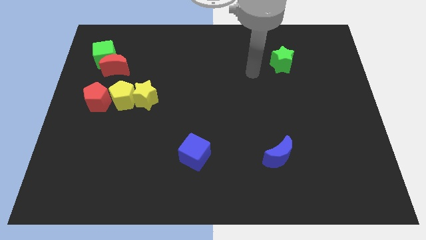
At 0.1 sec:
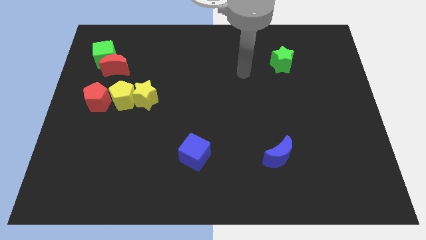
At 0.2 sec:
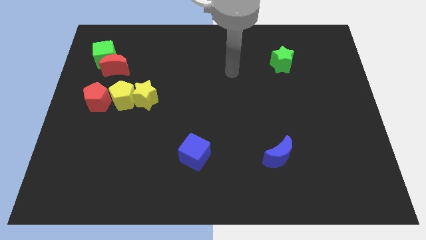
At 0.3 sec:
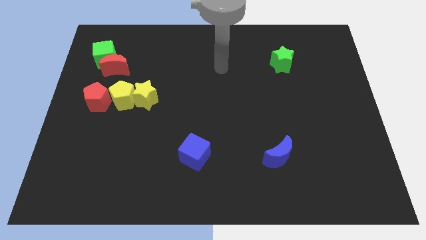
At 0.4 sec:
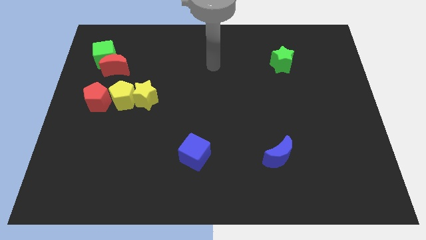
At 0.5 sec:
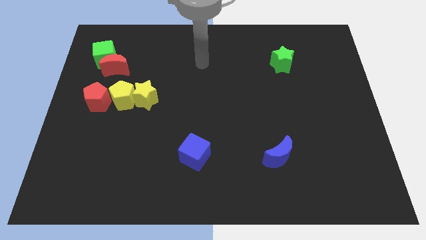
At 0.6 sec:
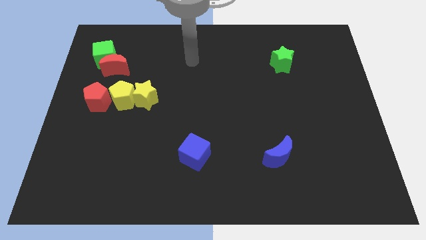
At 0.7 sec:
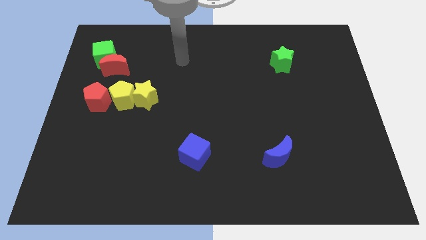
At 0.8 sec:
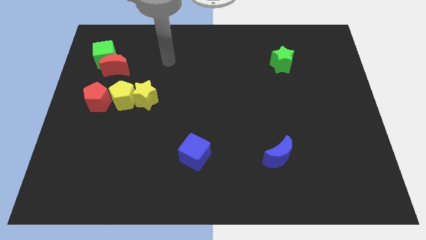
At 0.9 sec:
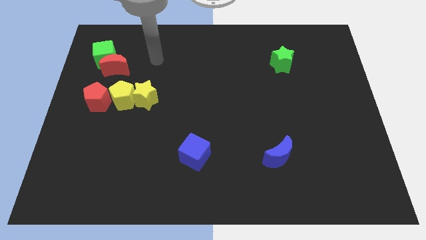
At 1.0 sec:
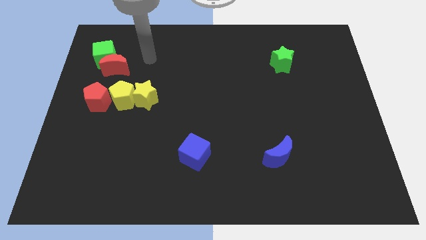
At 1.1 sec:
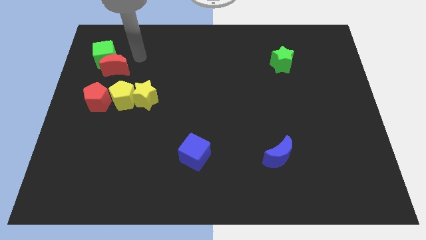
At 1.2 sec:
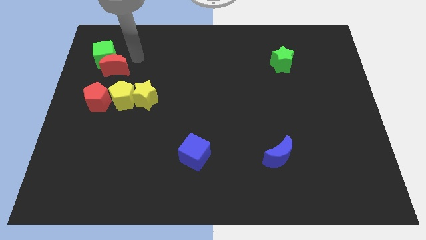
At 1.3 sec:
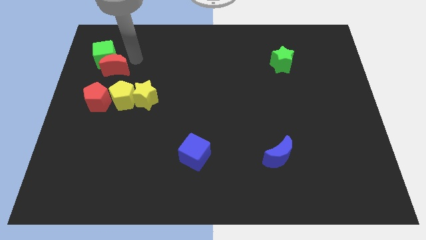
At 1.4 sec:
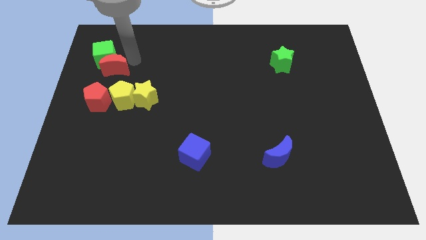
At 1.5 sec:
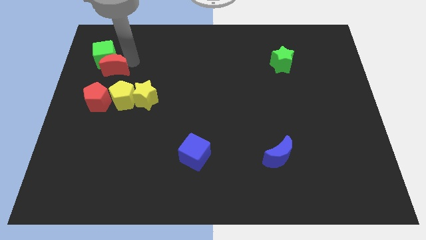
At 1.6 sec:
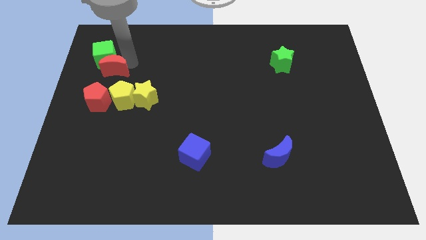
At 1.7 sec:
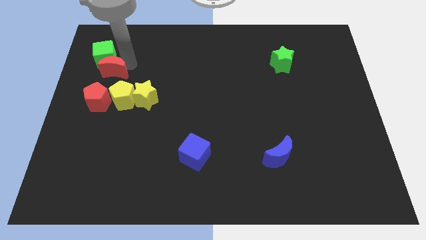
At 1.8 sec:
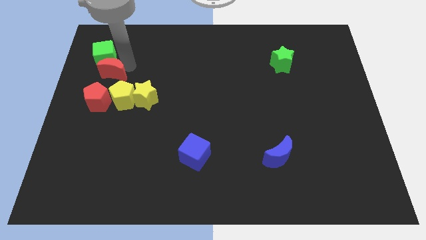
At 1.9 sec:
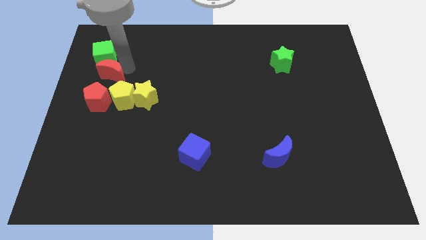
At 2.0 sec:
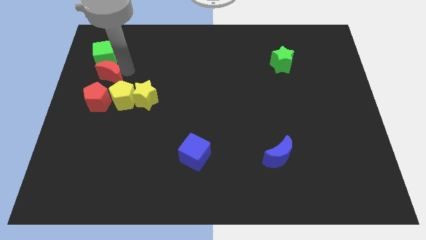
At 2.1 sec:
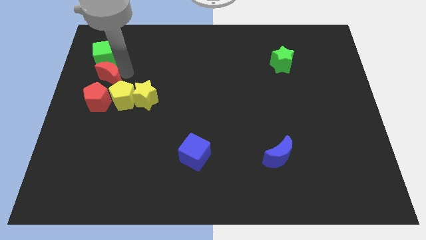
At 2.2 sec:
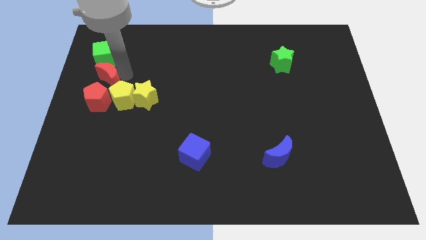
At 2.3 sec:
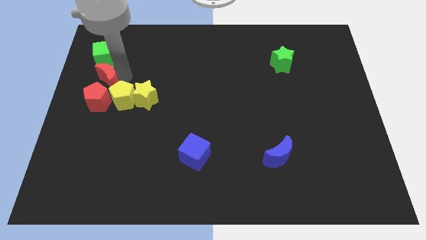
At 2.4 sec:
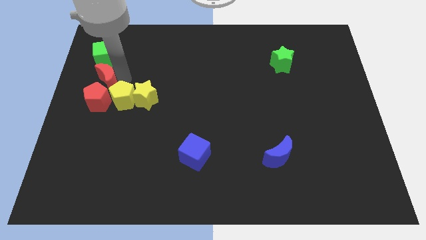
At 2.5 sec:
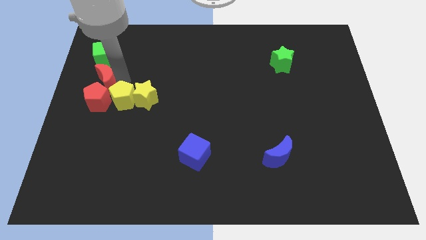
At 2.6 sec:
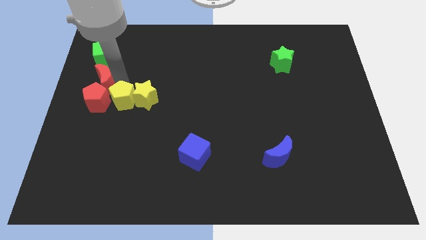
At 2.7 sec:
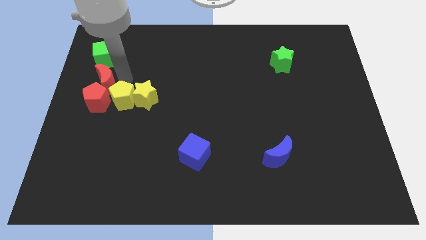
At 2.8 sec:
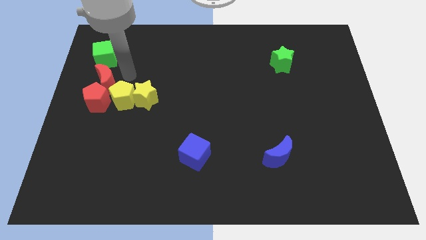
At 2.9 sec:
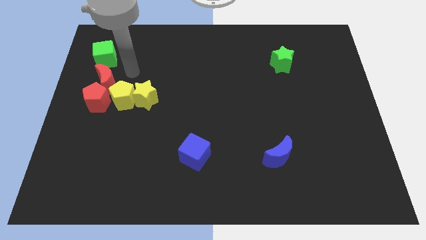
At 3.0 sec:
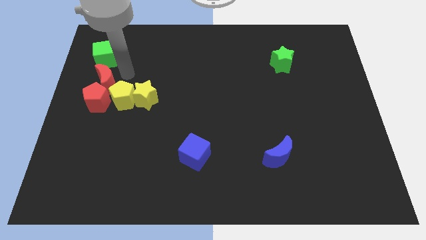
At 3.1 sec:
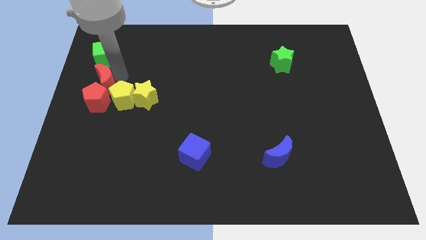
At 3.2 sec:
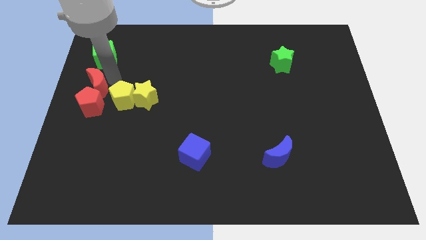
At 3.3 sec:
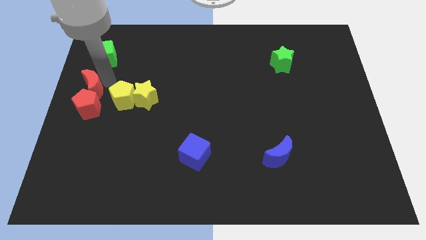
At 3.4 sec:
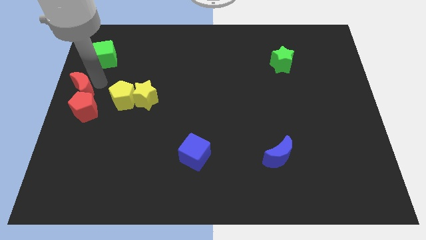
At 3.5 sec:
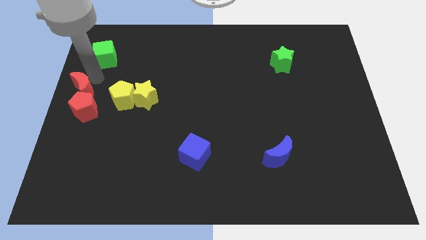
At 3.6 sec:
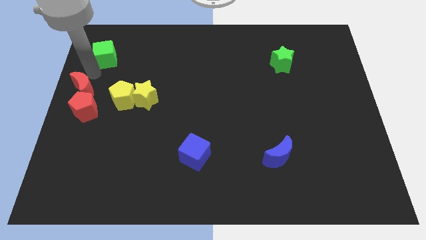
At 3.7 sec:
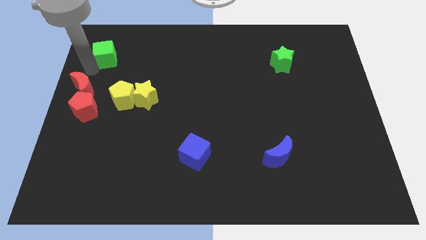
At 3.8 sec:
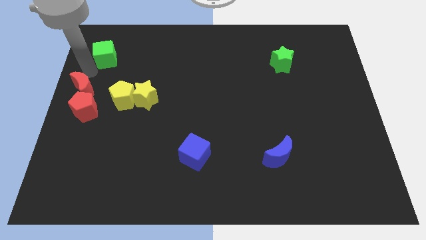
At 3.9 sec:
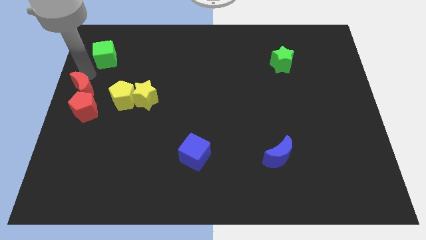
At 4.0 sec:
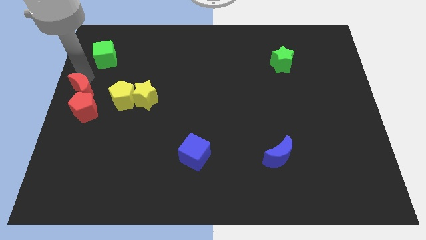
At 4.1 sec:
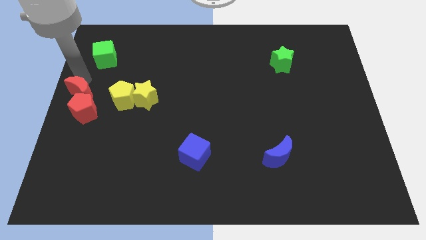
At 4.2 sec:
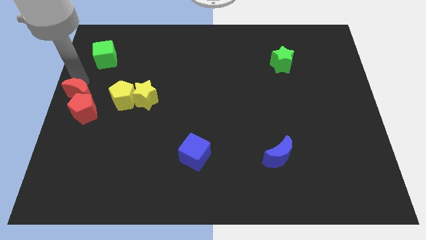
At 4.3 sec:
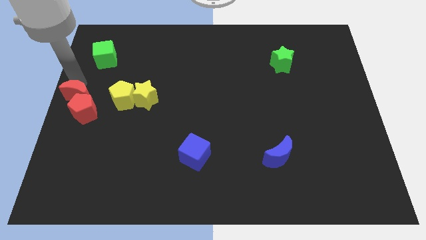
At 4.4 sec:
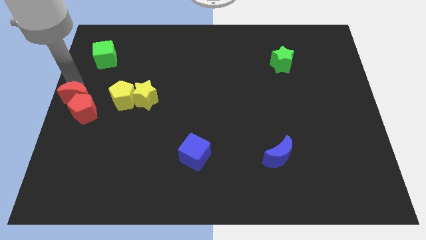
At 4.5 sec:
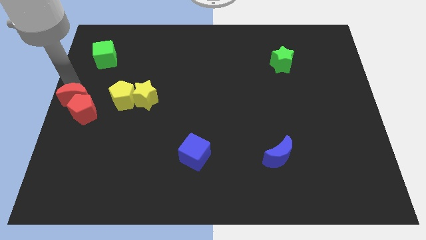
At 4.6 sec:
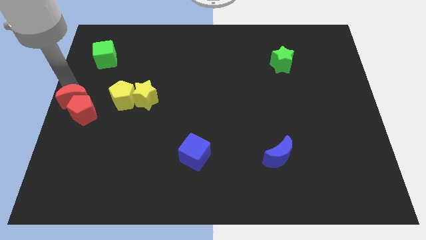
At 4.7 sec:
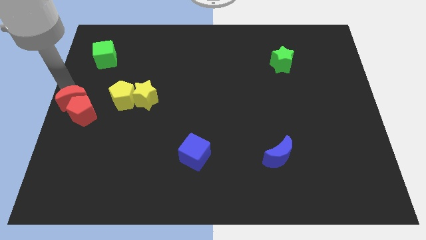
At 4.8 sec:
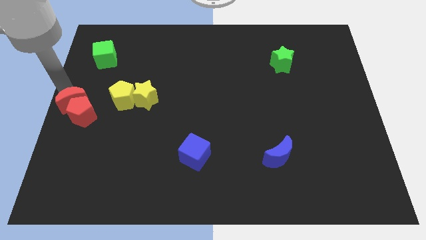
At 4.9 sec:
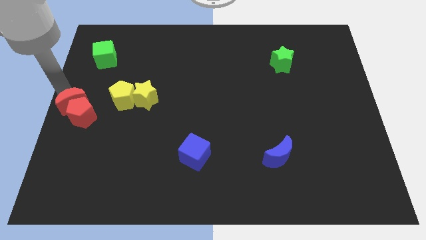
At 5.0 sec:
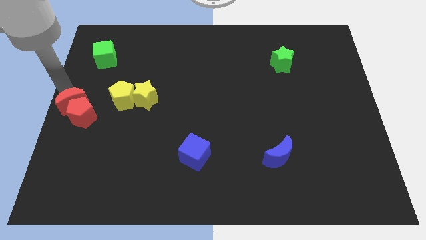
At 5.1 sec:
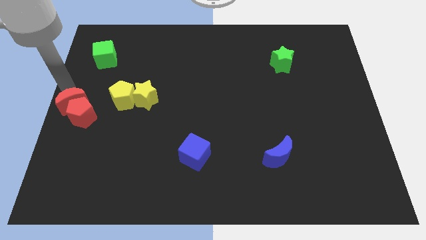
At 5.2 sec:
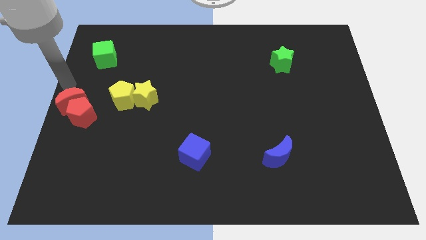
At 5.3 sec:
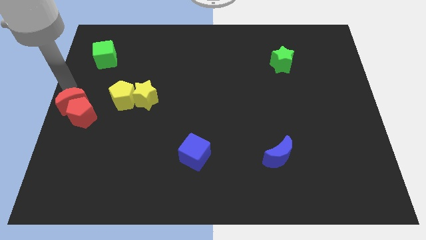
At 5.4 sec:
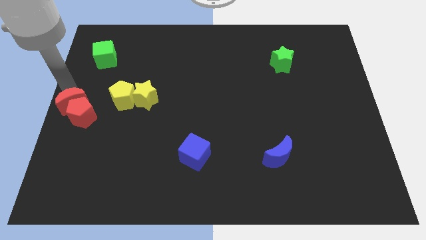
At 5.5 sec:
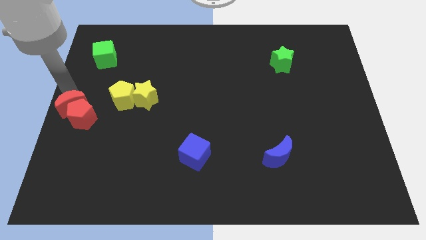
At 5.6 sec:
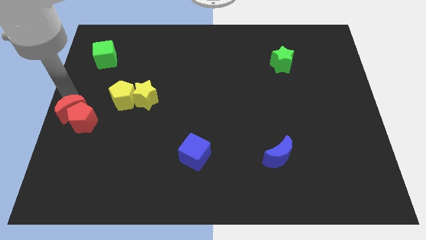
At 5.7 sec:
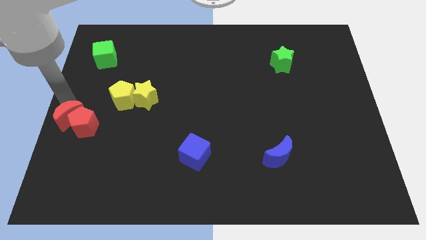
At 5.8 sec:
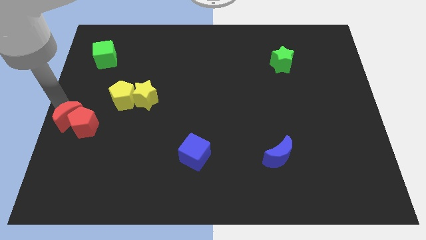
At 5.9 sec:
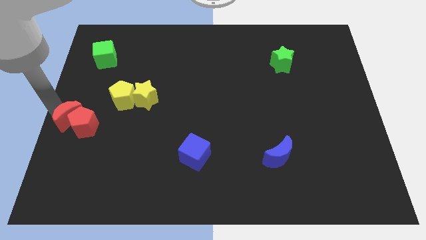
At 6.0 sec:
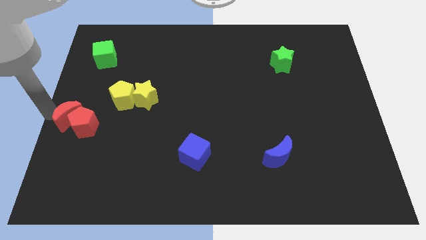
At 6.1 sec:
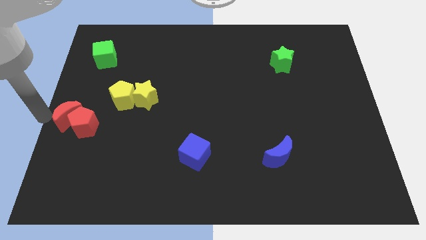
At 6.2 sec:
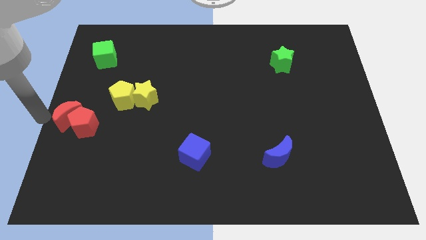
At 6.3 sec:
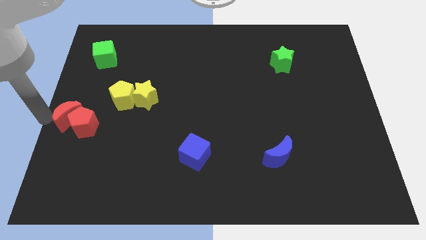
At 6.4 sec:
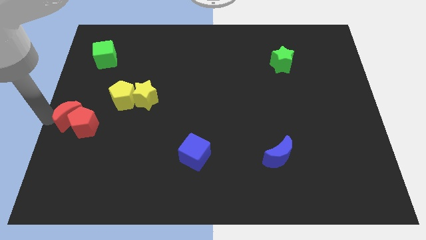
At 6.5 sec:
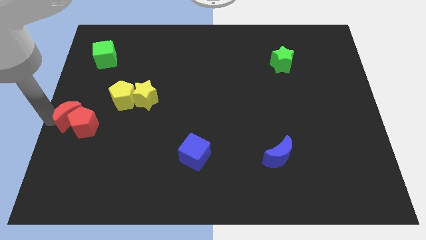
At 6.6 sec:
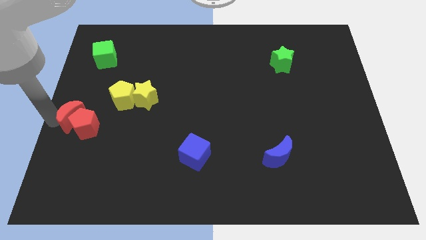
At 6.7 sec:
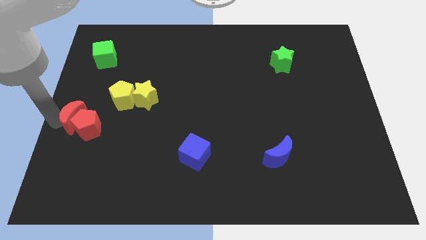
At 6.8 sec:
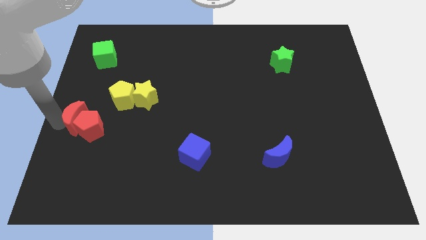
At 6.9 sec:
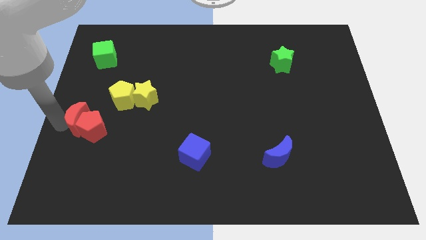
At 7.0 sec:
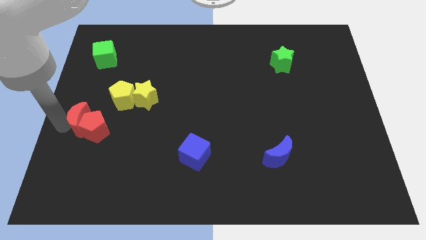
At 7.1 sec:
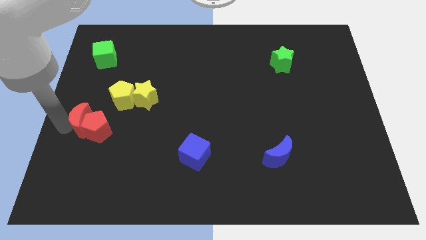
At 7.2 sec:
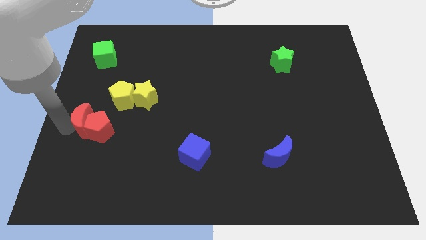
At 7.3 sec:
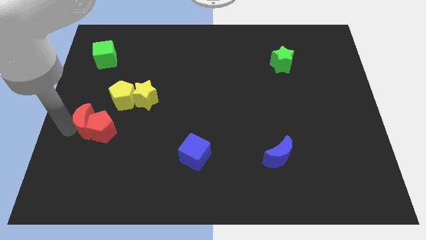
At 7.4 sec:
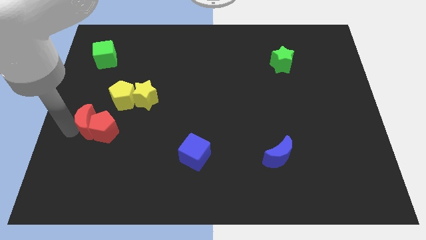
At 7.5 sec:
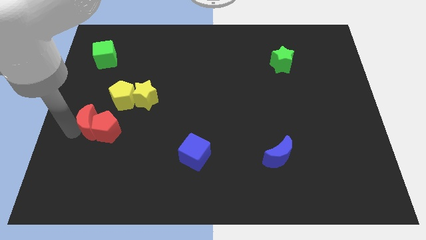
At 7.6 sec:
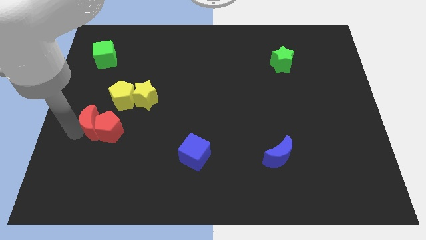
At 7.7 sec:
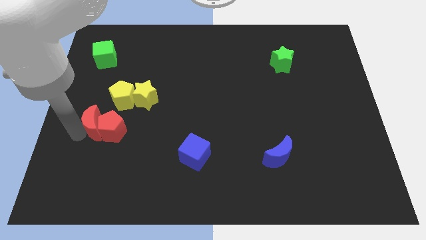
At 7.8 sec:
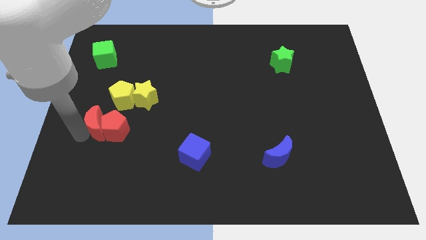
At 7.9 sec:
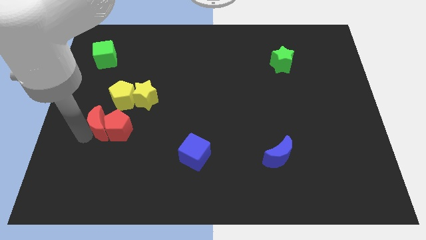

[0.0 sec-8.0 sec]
put the red moon to the bottom left side of the yellow star
